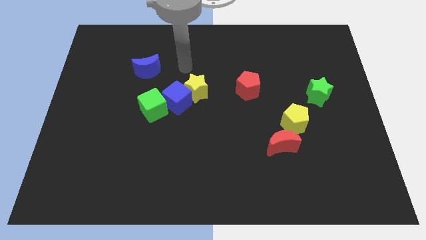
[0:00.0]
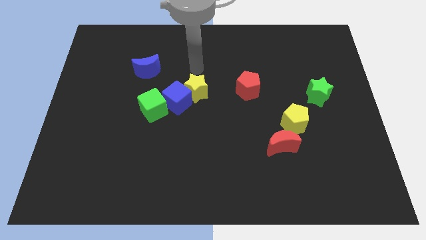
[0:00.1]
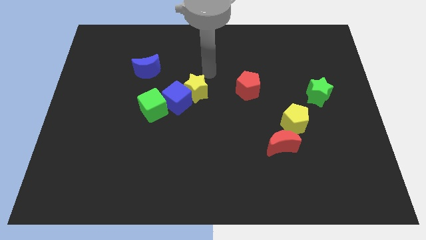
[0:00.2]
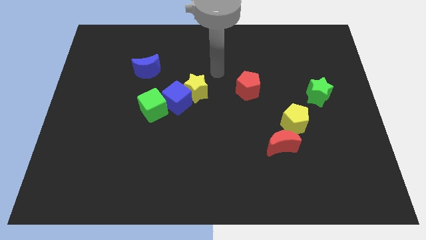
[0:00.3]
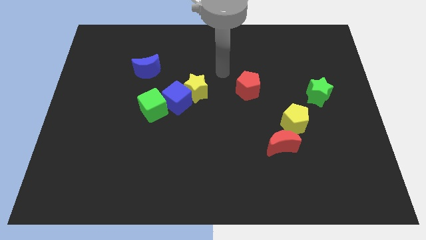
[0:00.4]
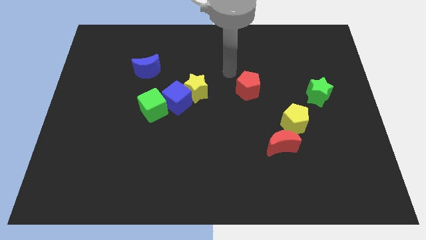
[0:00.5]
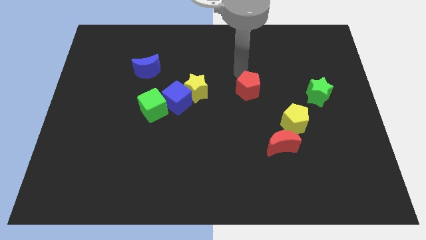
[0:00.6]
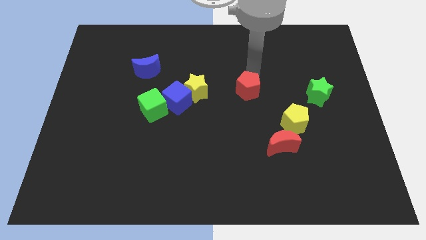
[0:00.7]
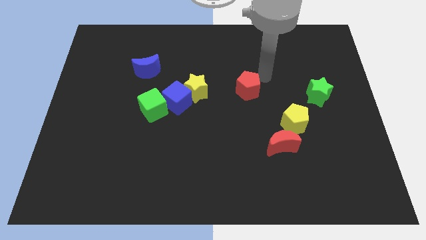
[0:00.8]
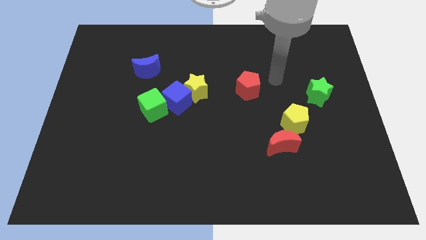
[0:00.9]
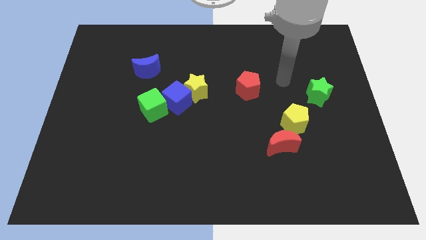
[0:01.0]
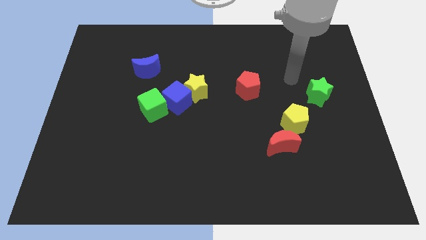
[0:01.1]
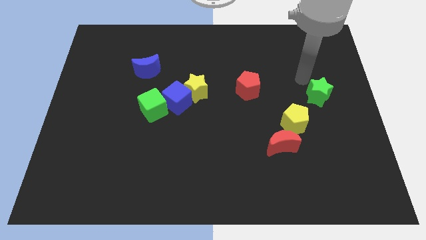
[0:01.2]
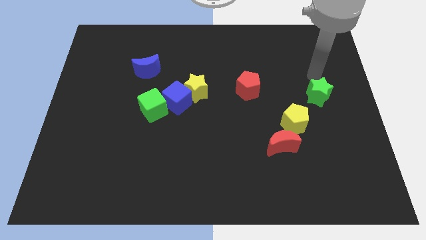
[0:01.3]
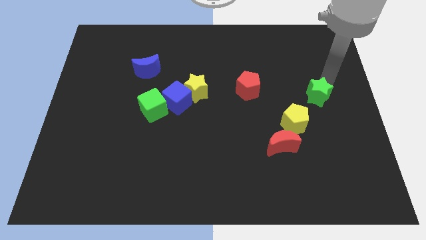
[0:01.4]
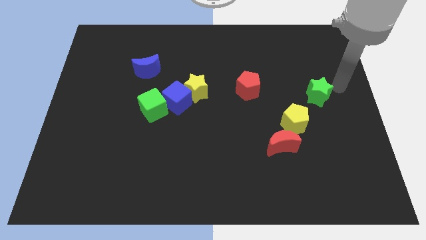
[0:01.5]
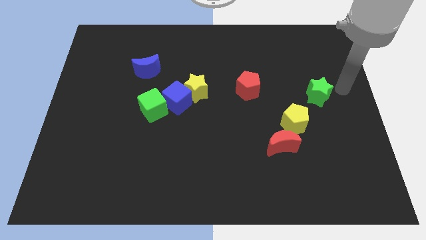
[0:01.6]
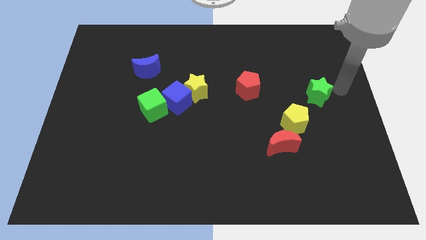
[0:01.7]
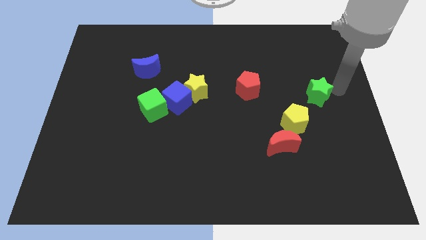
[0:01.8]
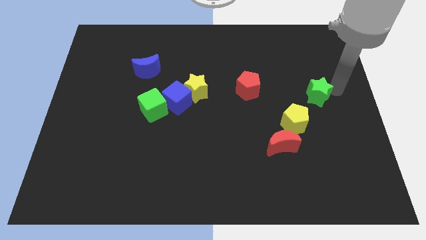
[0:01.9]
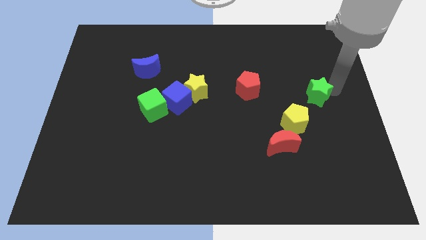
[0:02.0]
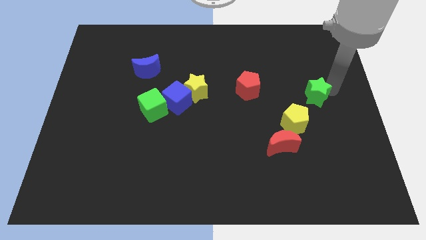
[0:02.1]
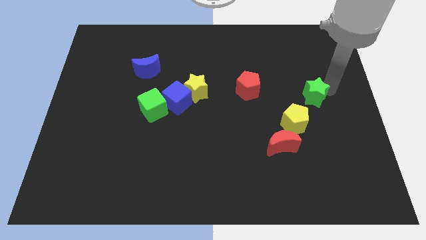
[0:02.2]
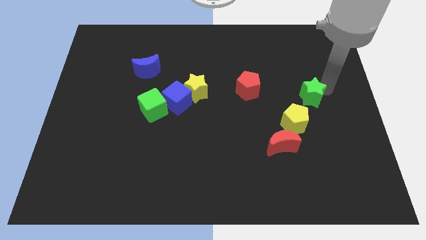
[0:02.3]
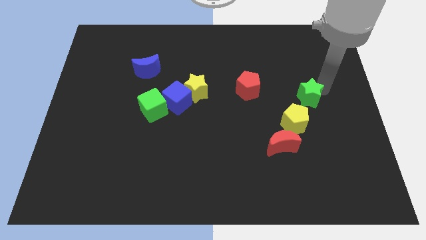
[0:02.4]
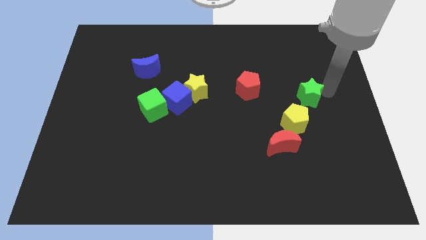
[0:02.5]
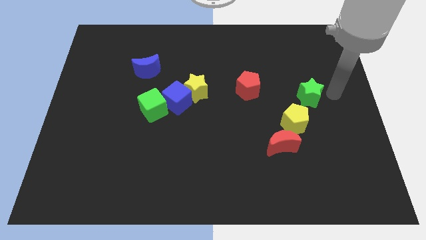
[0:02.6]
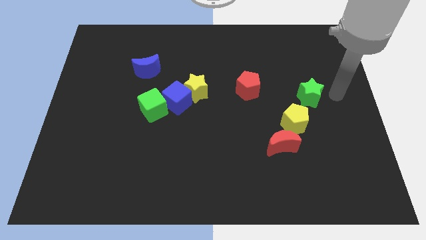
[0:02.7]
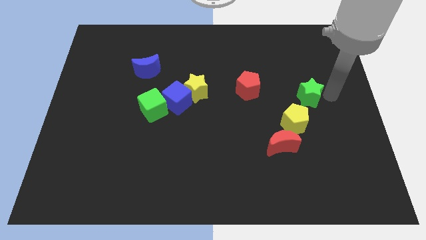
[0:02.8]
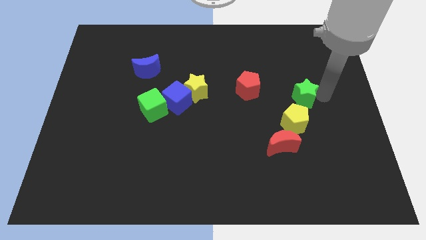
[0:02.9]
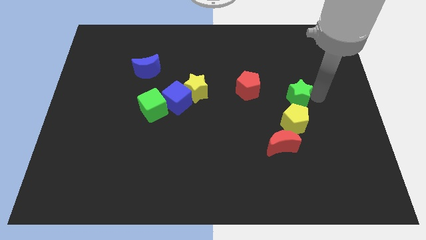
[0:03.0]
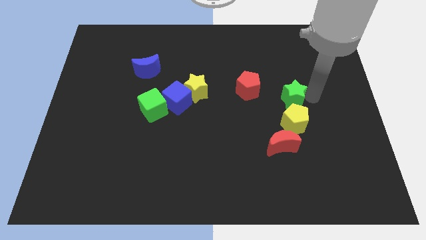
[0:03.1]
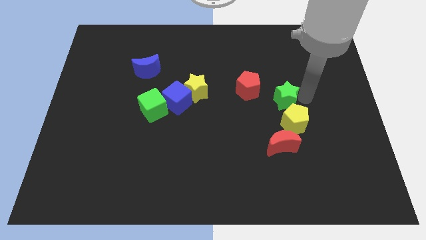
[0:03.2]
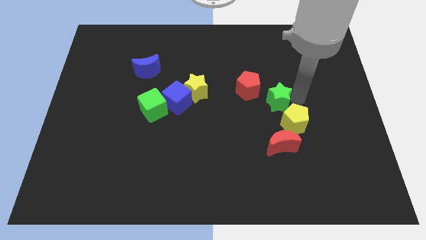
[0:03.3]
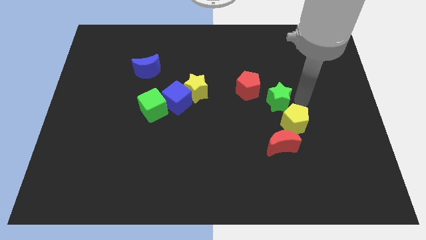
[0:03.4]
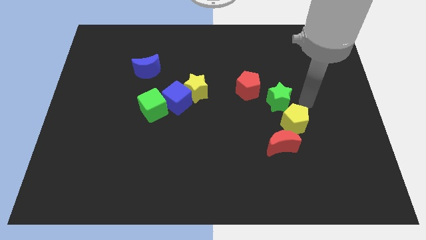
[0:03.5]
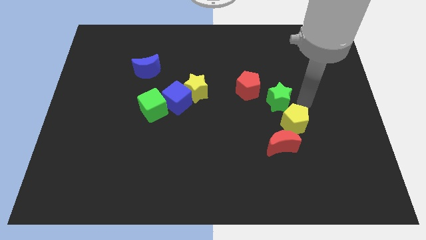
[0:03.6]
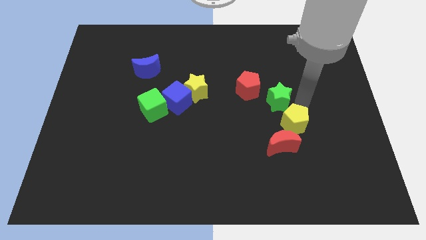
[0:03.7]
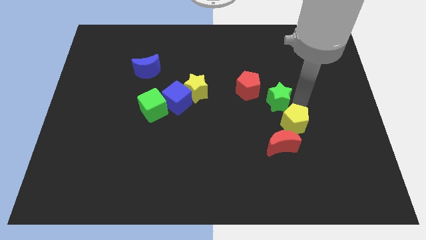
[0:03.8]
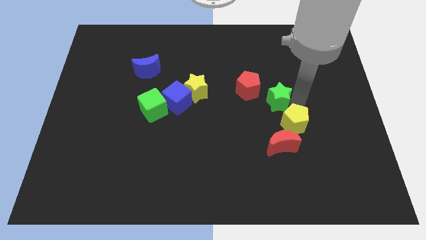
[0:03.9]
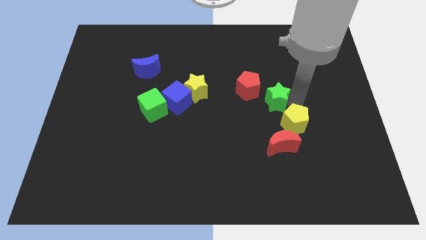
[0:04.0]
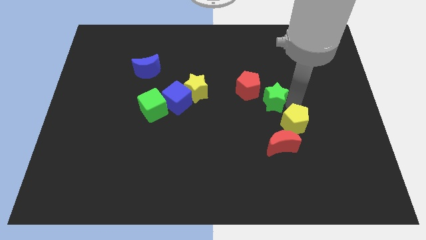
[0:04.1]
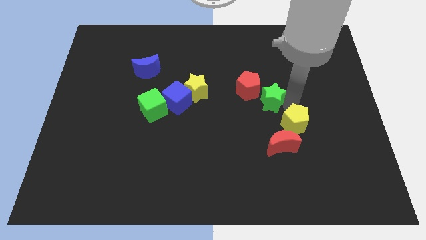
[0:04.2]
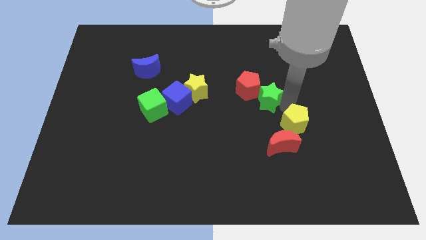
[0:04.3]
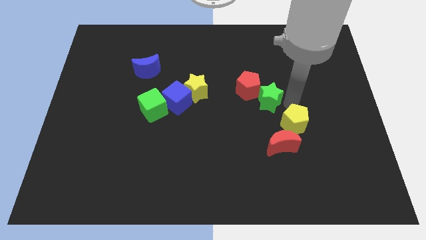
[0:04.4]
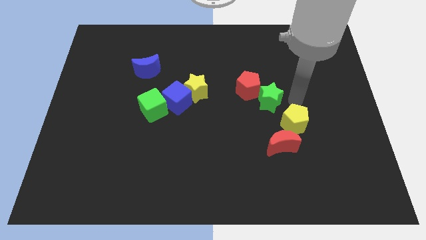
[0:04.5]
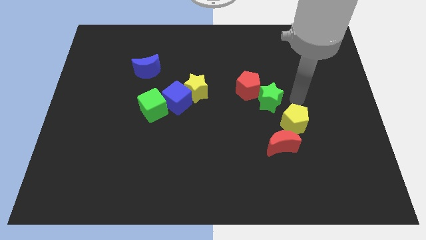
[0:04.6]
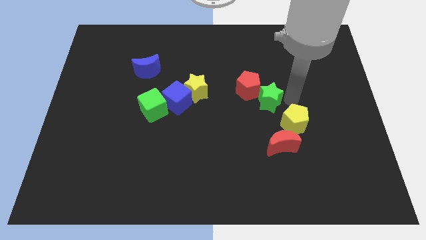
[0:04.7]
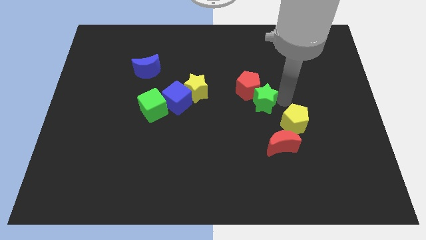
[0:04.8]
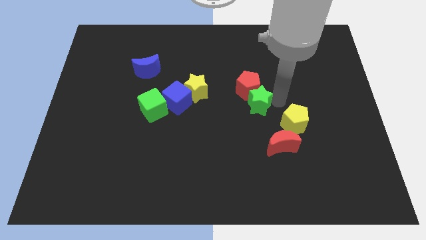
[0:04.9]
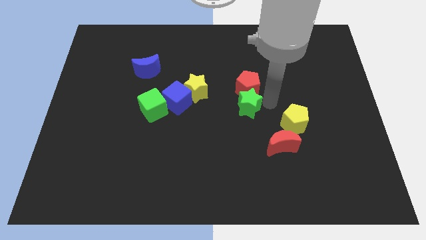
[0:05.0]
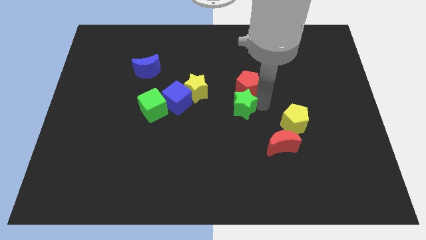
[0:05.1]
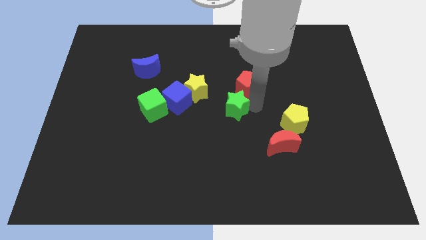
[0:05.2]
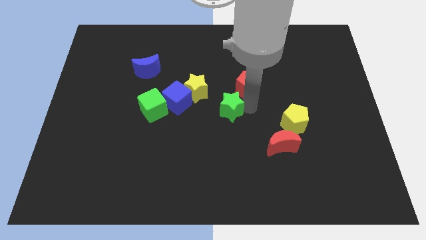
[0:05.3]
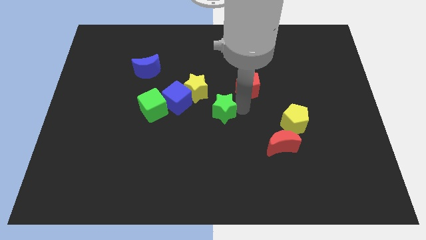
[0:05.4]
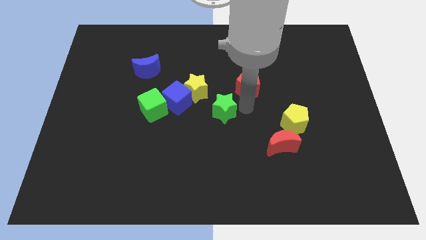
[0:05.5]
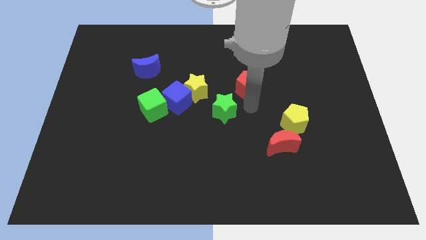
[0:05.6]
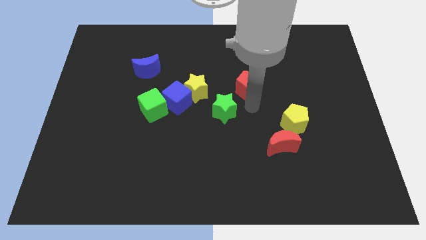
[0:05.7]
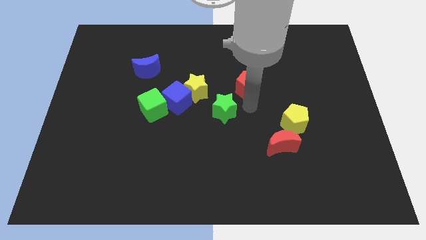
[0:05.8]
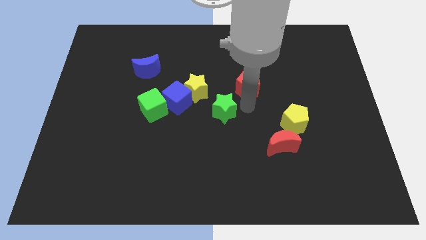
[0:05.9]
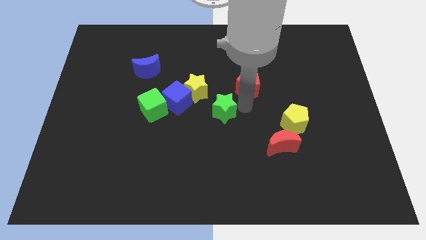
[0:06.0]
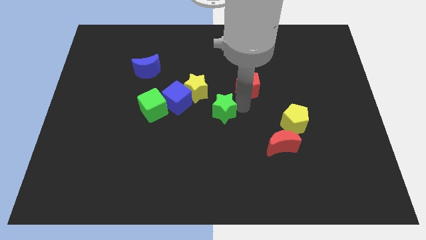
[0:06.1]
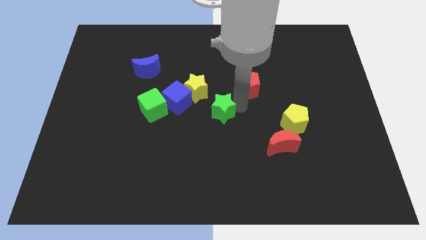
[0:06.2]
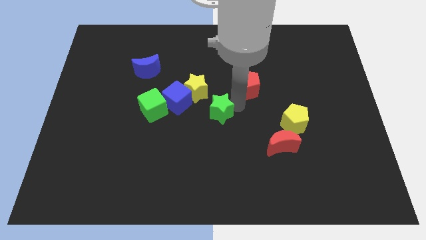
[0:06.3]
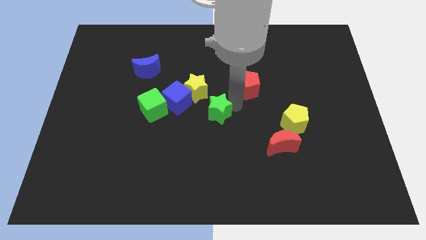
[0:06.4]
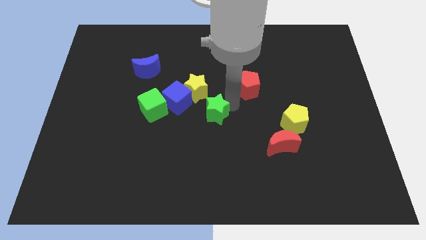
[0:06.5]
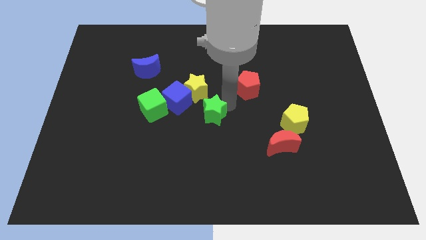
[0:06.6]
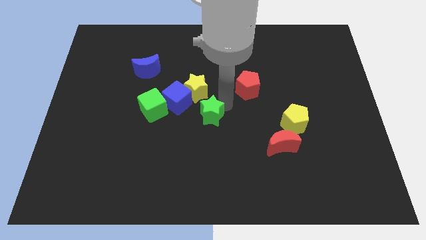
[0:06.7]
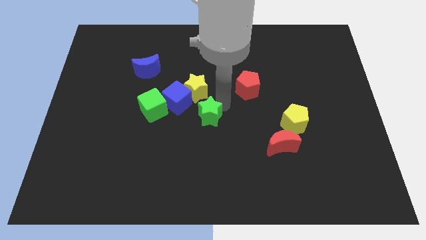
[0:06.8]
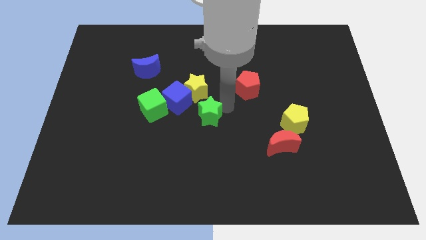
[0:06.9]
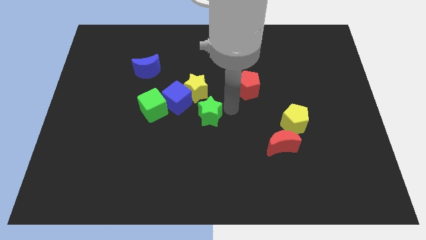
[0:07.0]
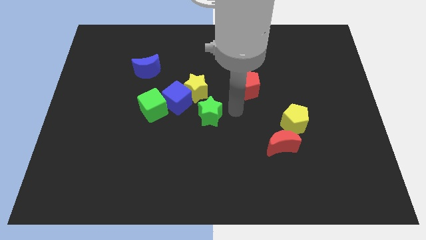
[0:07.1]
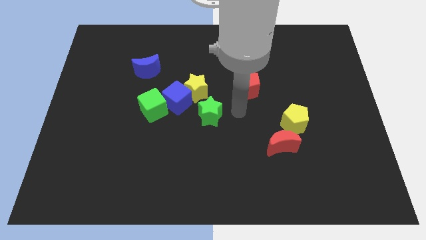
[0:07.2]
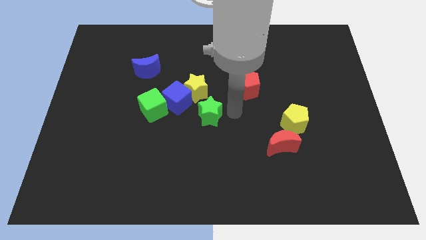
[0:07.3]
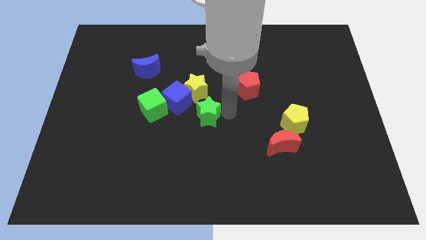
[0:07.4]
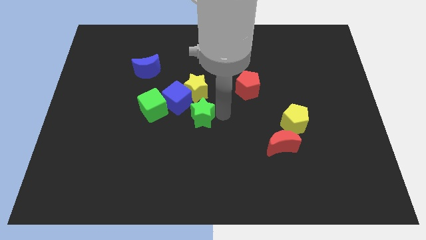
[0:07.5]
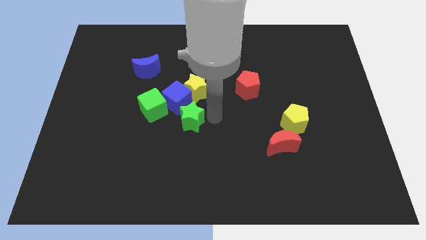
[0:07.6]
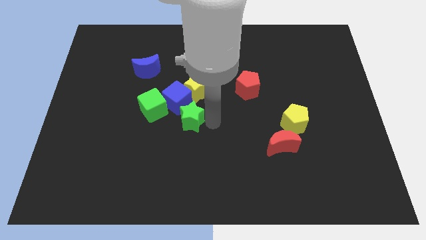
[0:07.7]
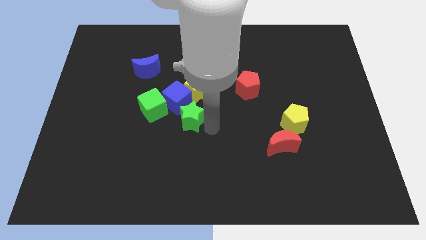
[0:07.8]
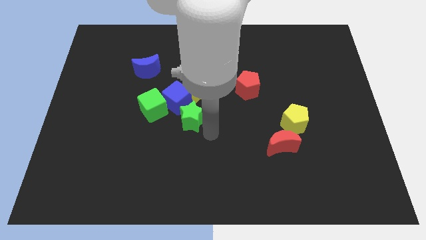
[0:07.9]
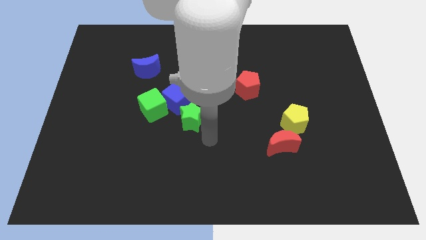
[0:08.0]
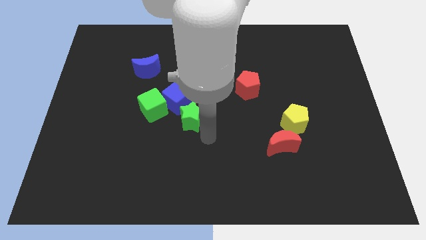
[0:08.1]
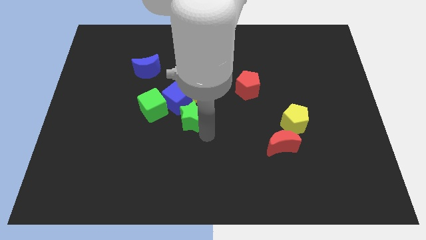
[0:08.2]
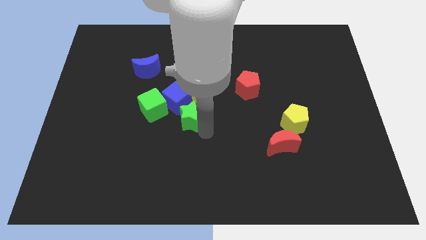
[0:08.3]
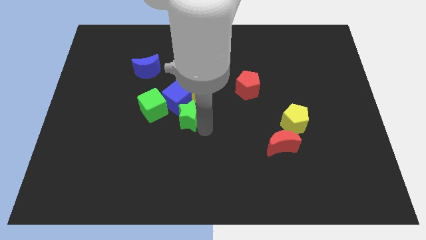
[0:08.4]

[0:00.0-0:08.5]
put the green star next to the blue cube
